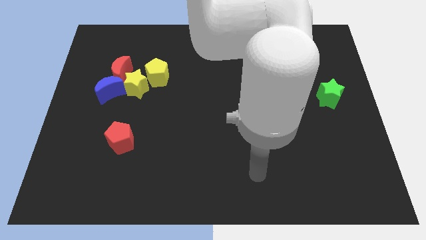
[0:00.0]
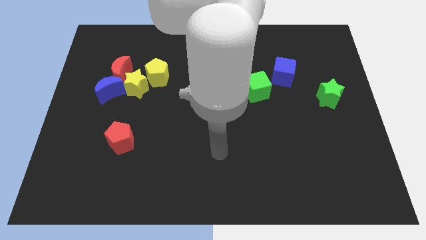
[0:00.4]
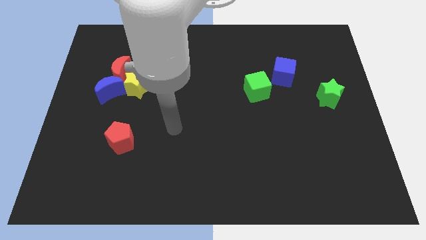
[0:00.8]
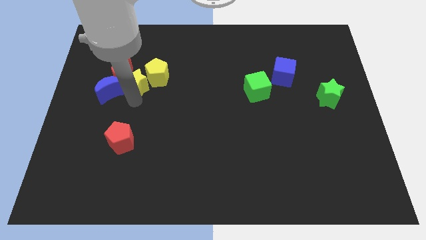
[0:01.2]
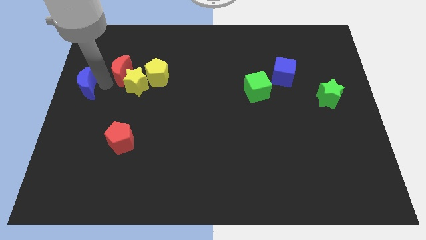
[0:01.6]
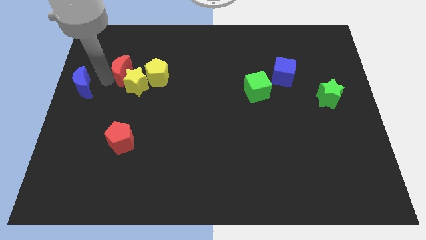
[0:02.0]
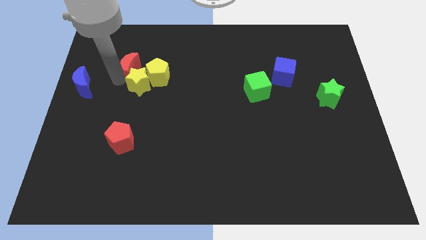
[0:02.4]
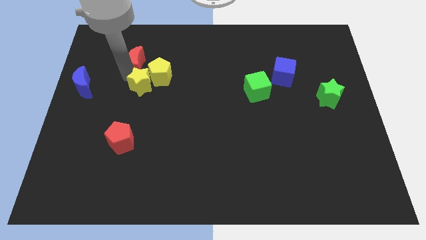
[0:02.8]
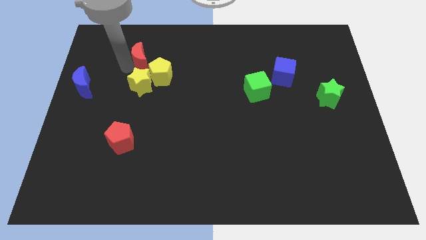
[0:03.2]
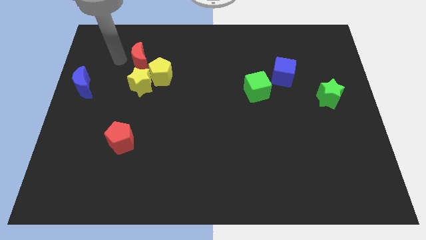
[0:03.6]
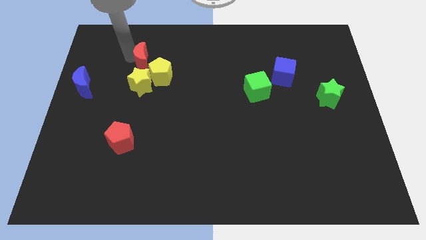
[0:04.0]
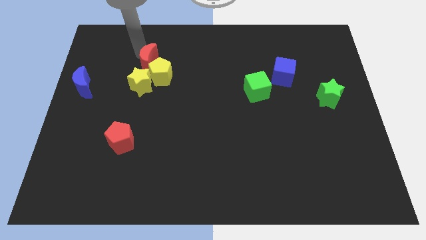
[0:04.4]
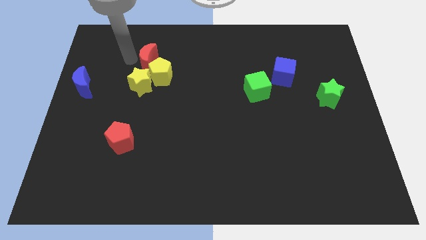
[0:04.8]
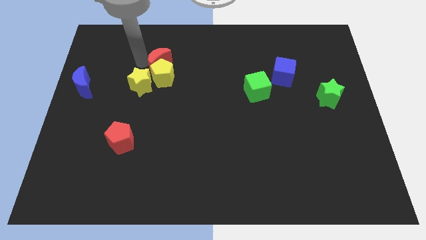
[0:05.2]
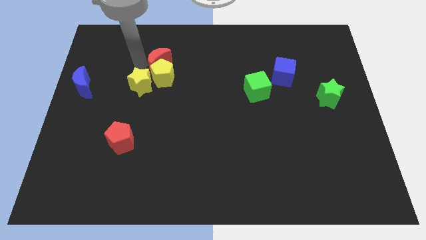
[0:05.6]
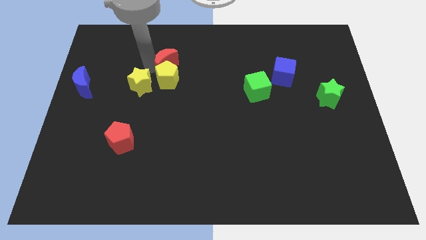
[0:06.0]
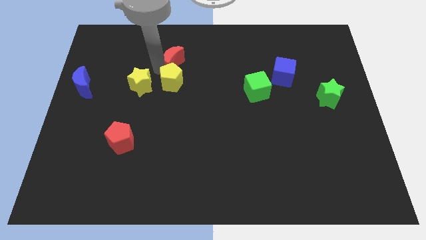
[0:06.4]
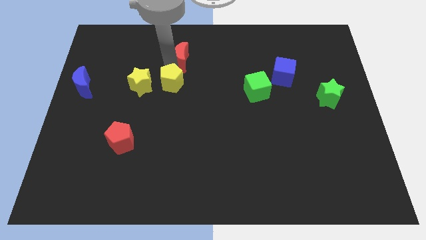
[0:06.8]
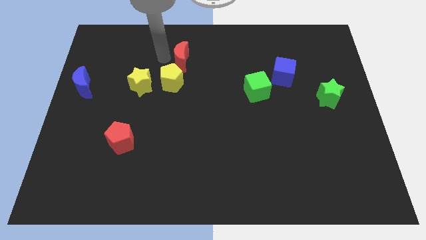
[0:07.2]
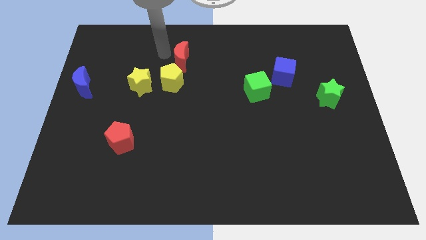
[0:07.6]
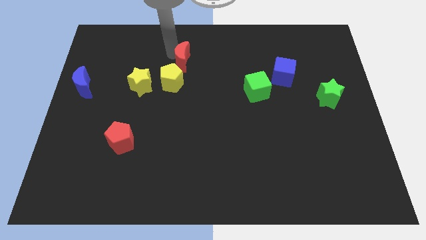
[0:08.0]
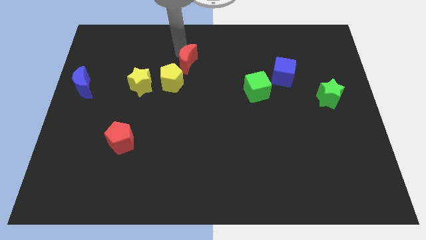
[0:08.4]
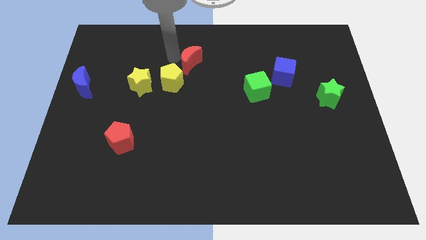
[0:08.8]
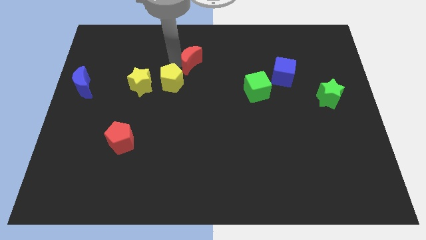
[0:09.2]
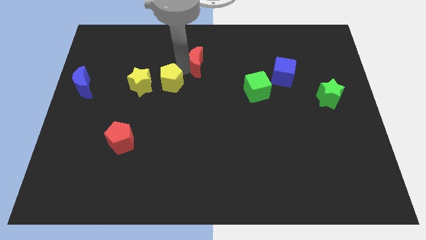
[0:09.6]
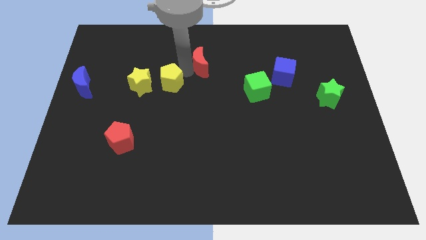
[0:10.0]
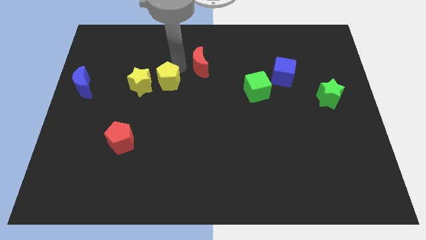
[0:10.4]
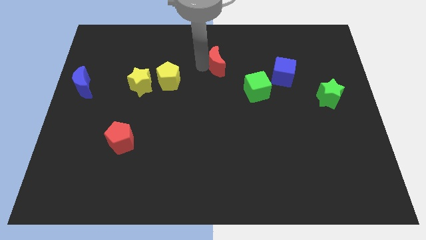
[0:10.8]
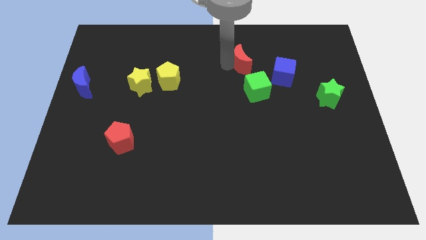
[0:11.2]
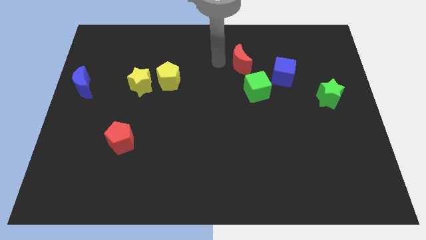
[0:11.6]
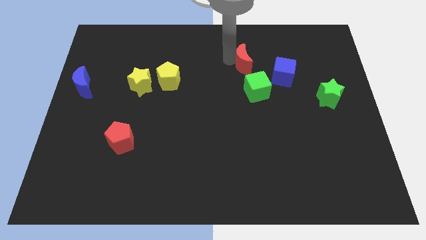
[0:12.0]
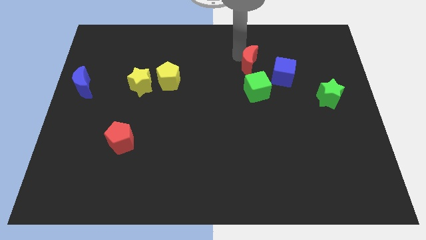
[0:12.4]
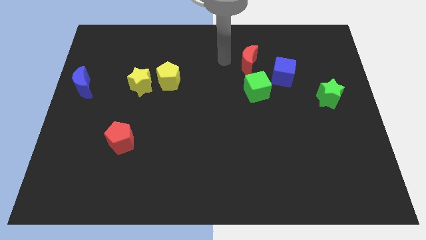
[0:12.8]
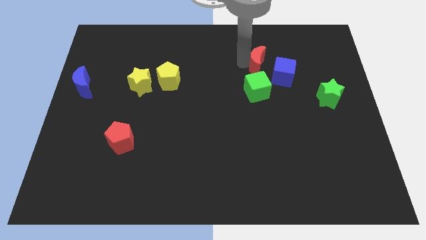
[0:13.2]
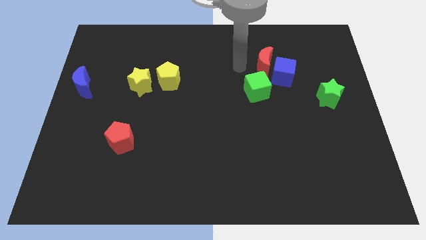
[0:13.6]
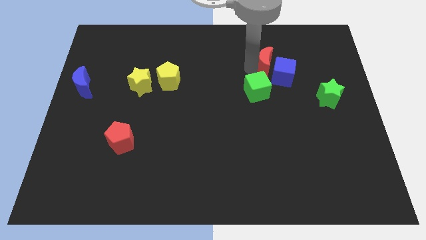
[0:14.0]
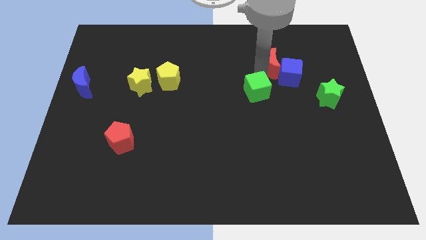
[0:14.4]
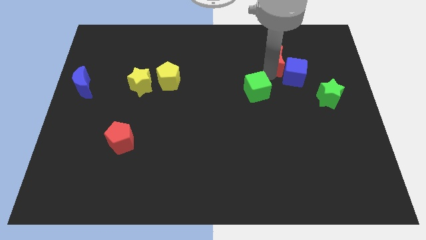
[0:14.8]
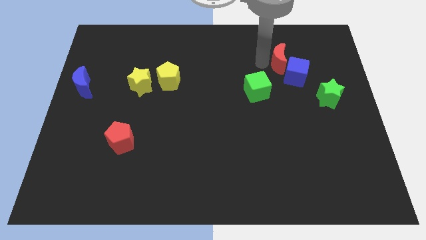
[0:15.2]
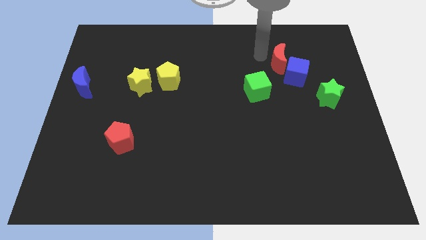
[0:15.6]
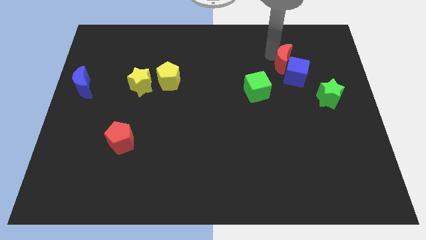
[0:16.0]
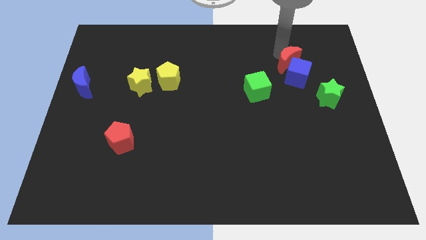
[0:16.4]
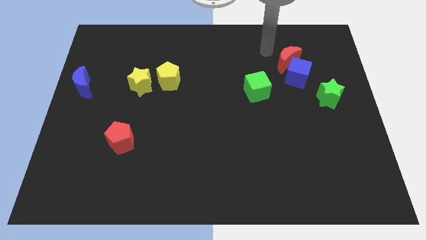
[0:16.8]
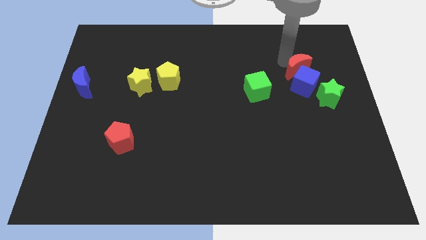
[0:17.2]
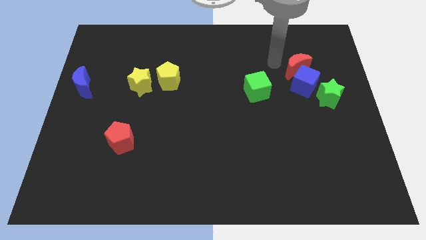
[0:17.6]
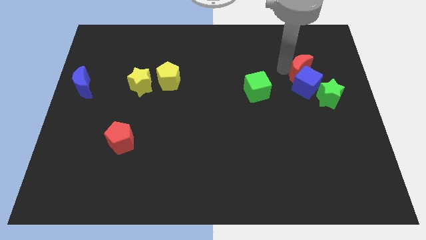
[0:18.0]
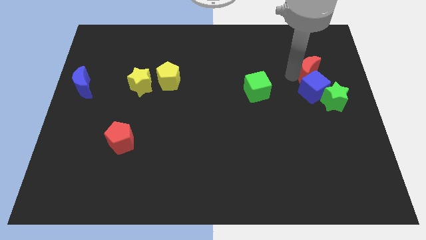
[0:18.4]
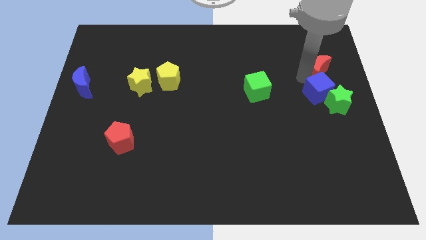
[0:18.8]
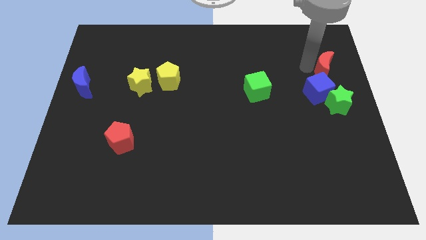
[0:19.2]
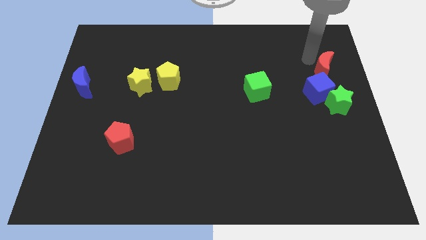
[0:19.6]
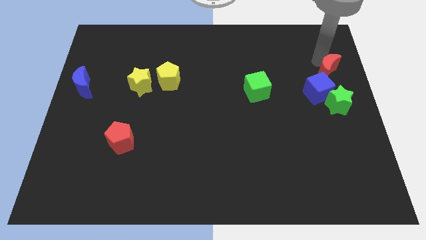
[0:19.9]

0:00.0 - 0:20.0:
slide the red moon to the center right

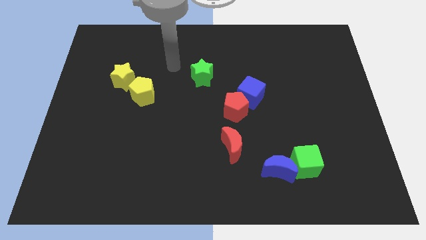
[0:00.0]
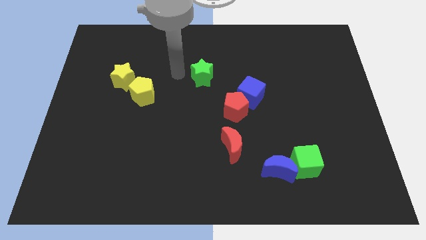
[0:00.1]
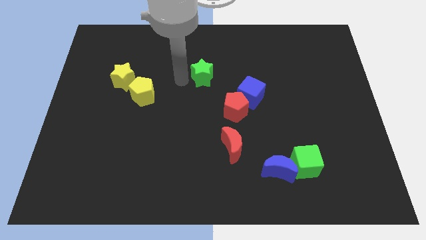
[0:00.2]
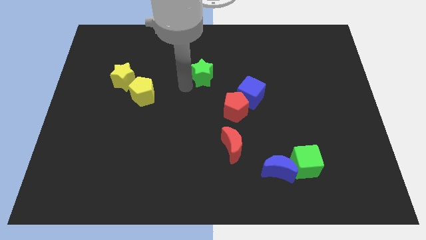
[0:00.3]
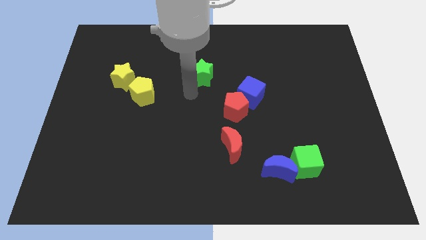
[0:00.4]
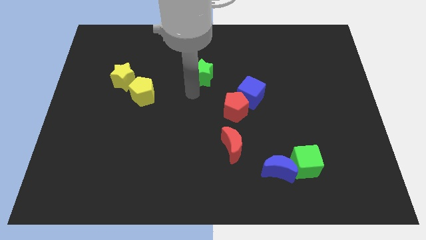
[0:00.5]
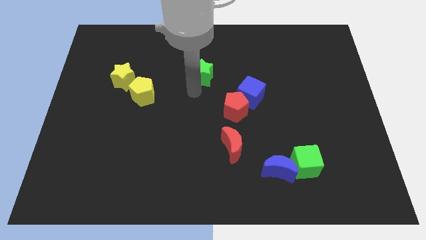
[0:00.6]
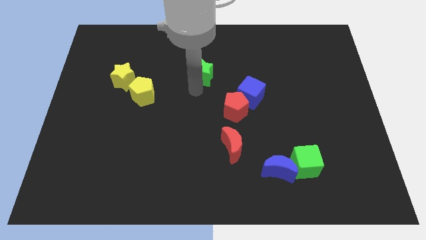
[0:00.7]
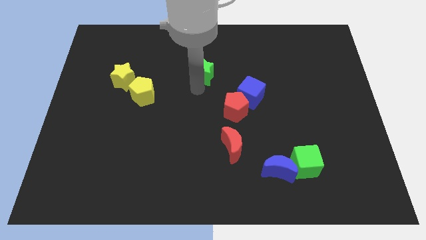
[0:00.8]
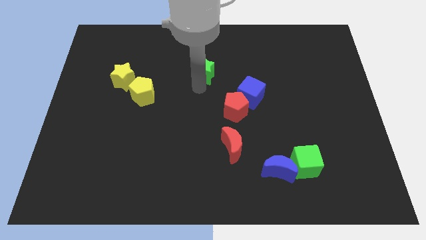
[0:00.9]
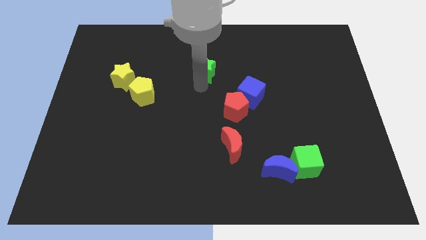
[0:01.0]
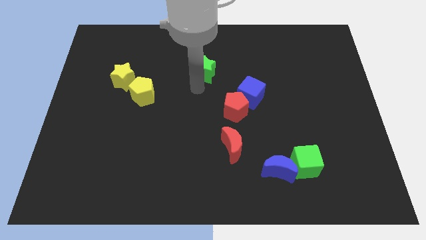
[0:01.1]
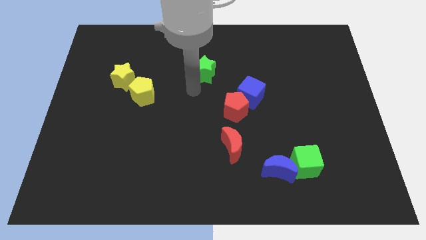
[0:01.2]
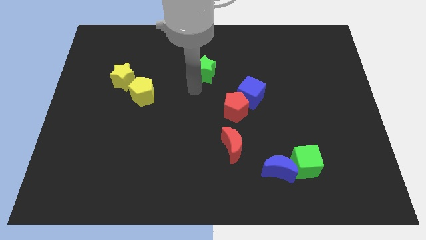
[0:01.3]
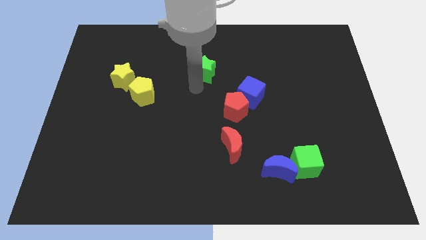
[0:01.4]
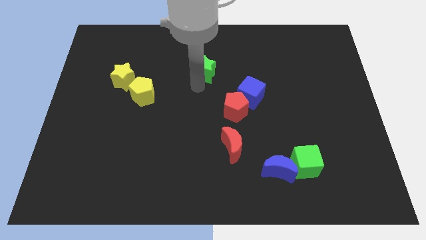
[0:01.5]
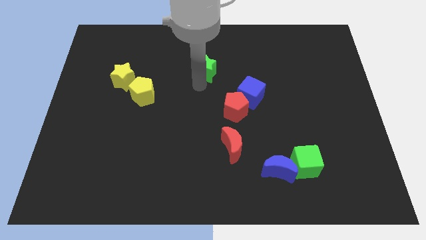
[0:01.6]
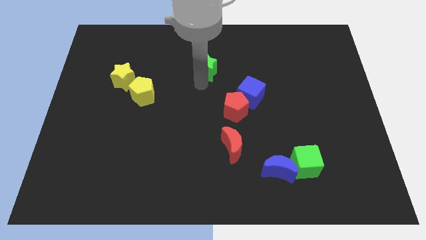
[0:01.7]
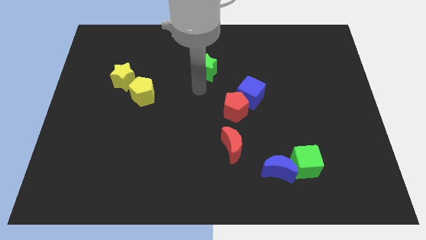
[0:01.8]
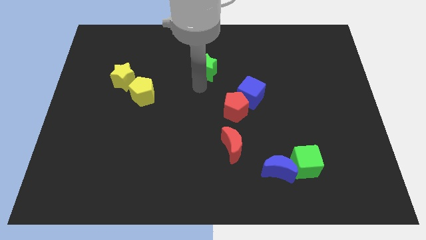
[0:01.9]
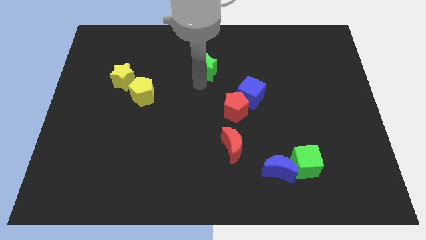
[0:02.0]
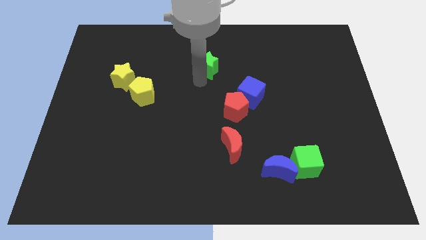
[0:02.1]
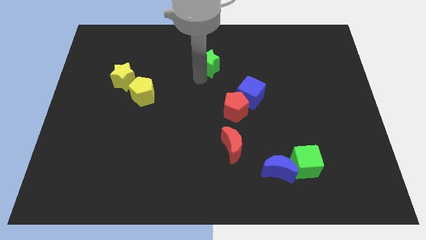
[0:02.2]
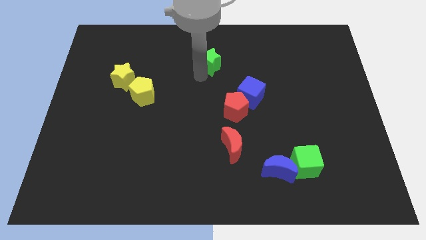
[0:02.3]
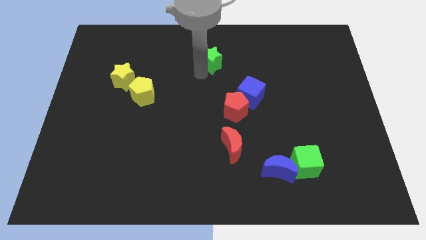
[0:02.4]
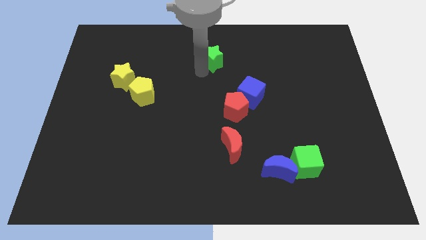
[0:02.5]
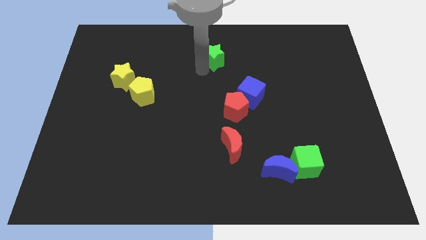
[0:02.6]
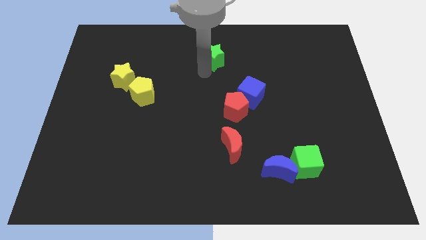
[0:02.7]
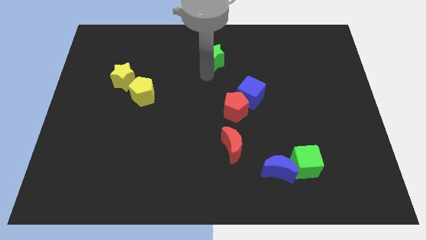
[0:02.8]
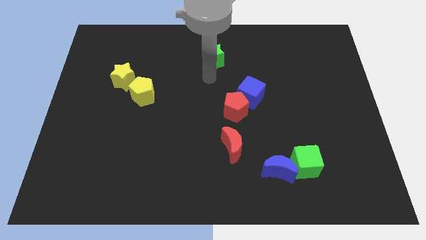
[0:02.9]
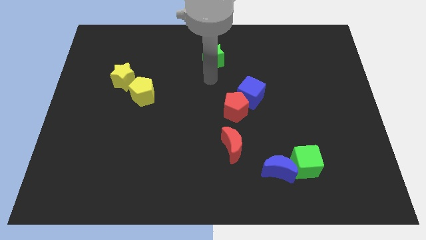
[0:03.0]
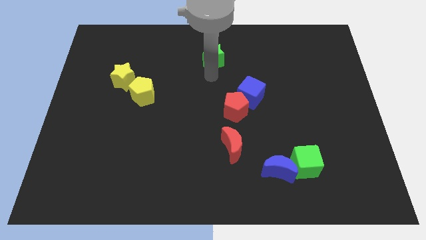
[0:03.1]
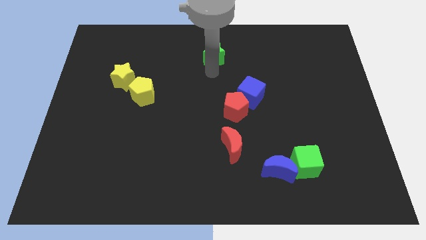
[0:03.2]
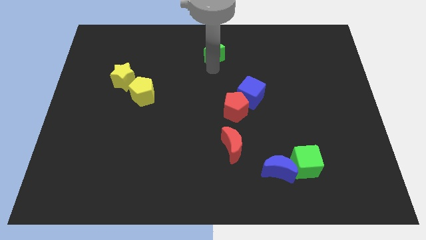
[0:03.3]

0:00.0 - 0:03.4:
move the green star to the top side
